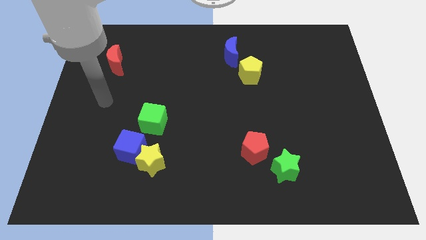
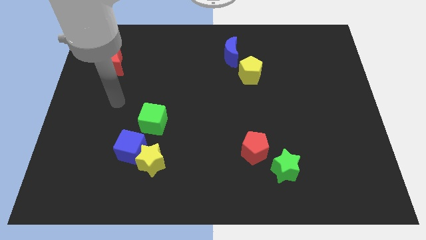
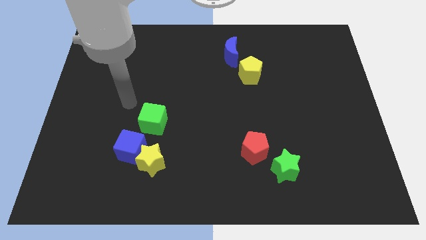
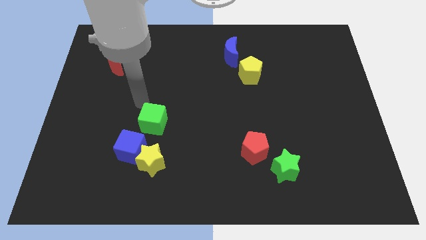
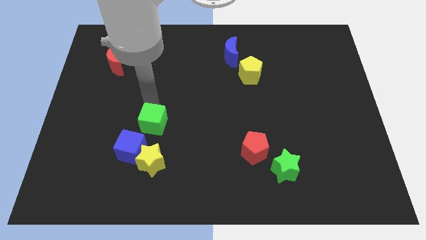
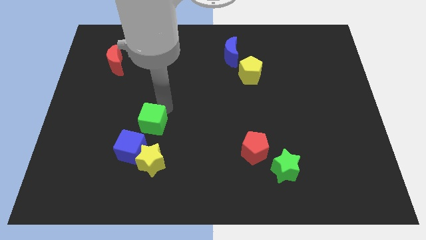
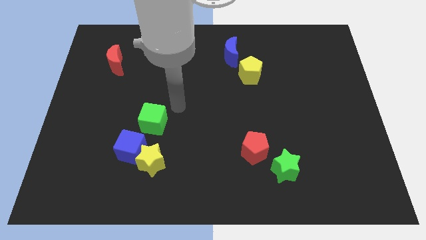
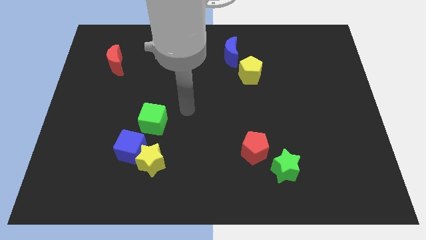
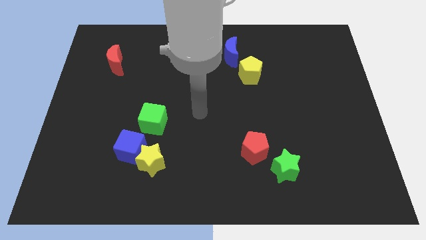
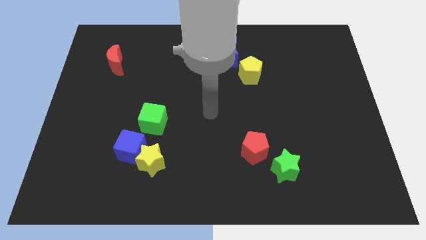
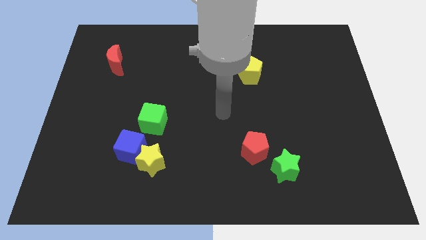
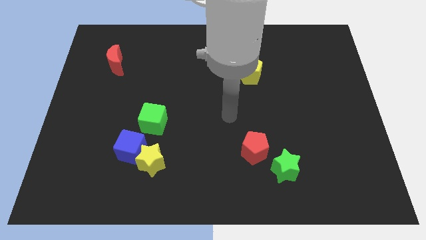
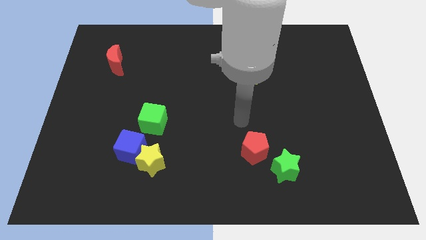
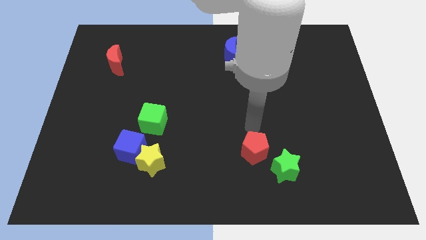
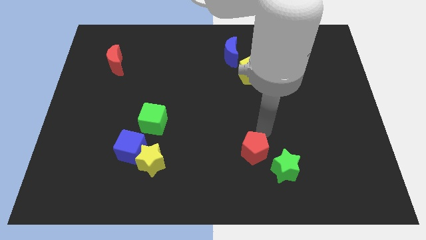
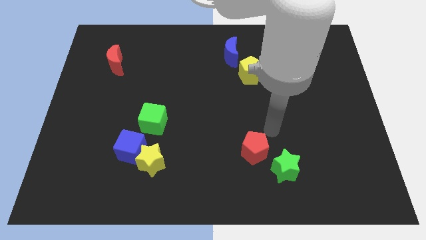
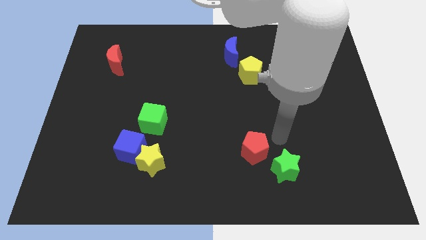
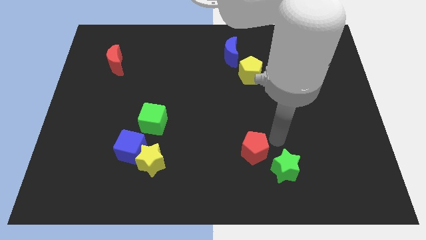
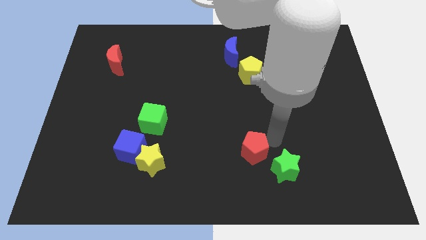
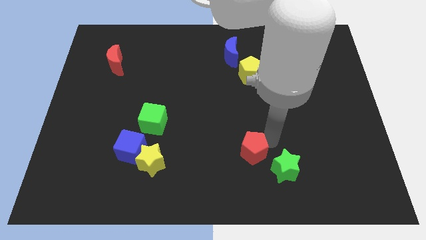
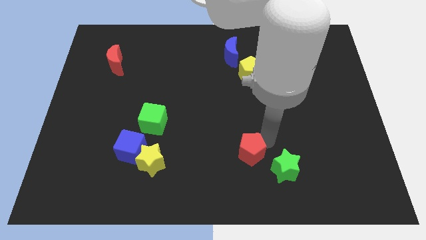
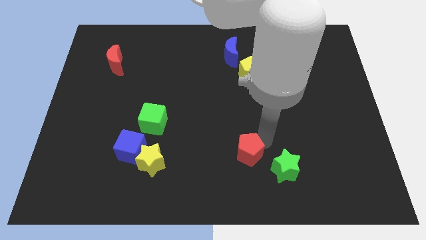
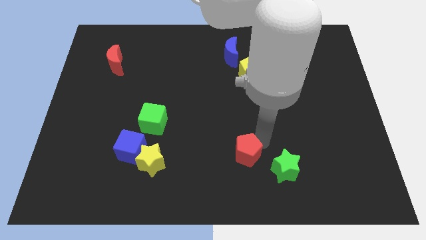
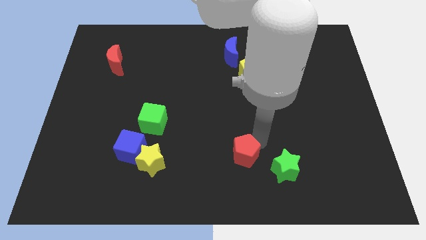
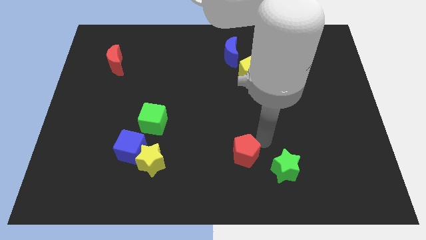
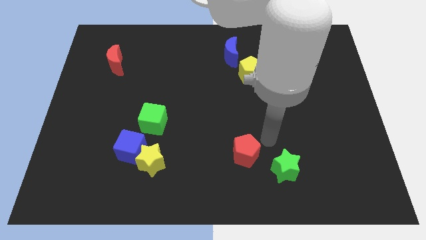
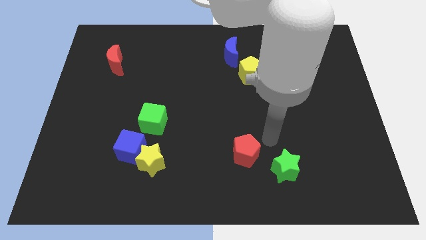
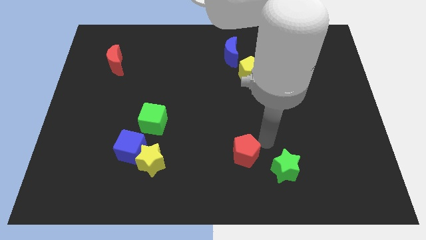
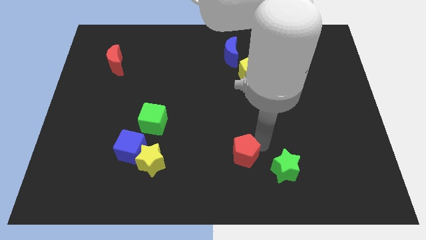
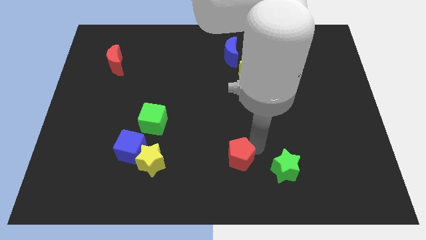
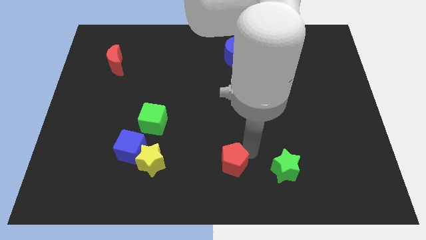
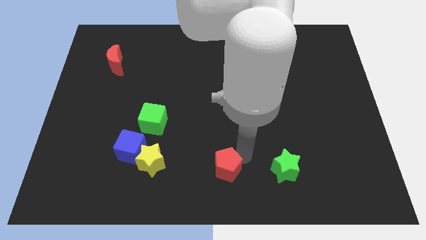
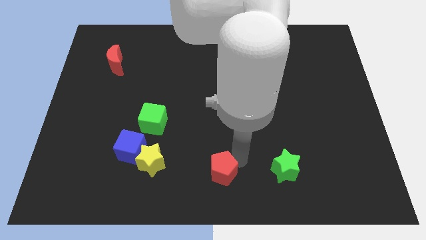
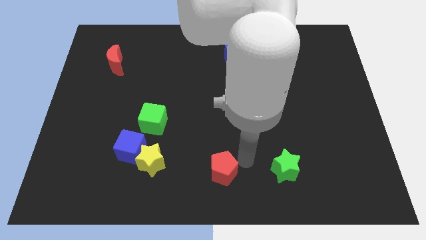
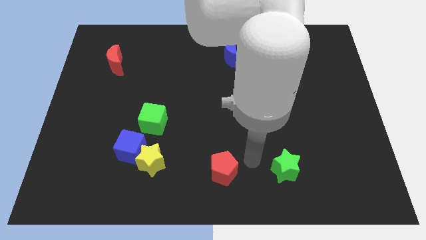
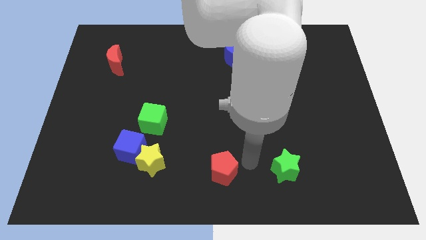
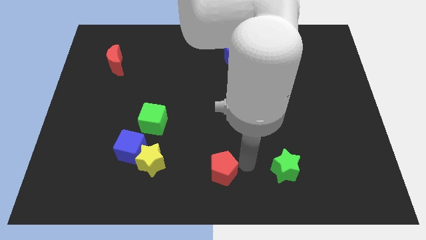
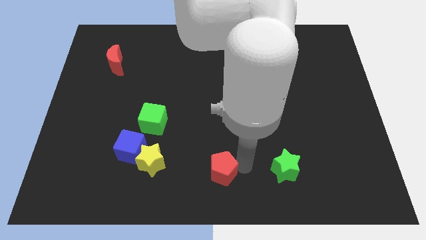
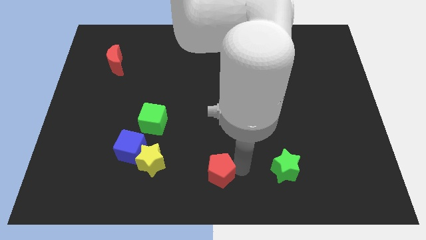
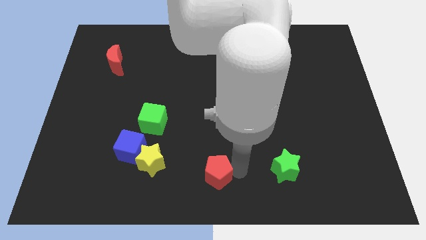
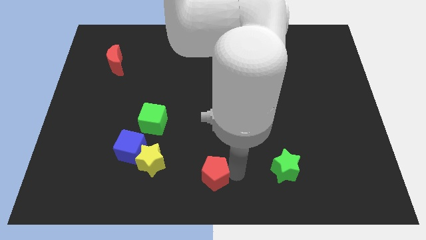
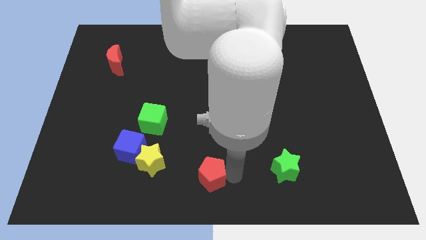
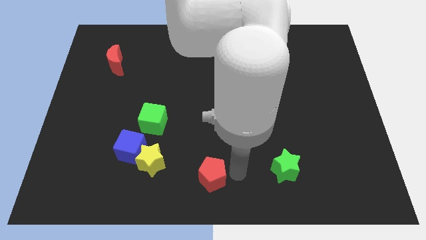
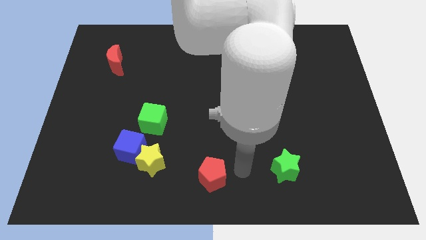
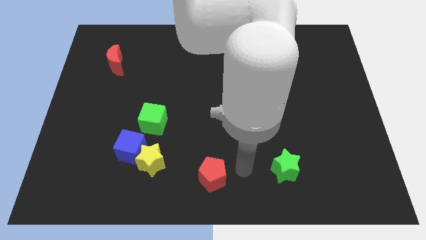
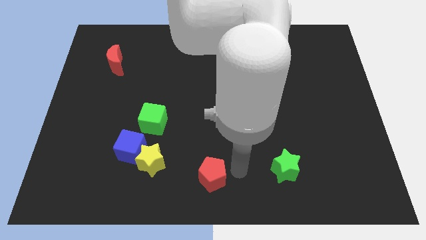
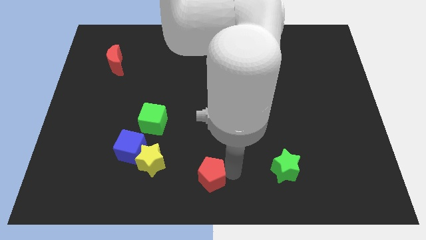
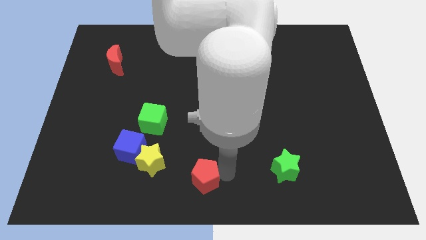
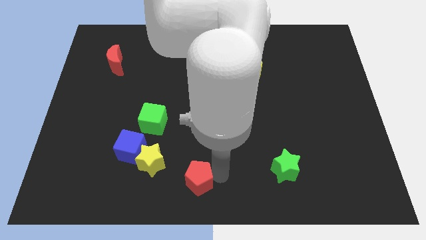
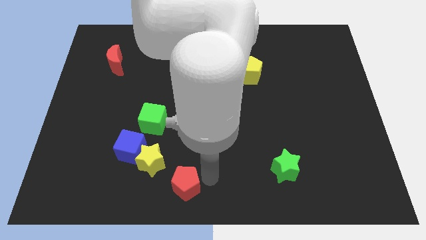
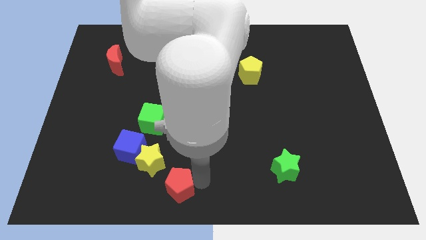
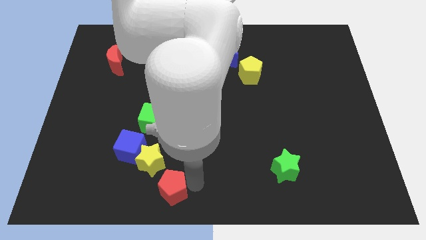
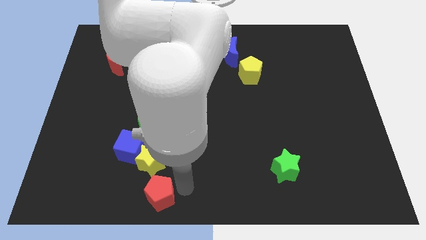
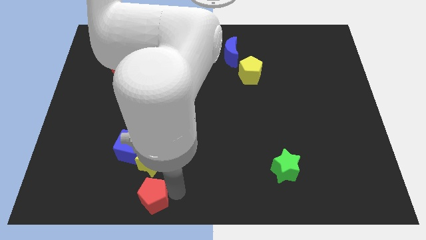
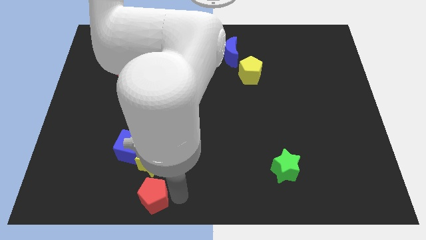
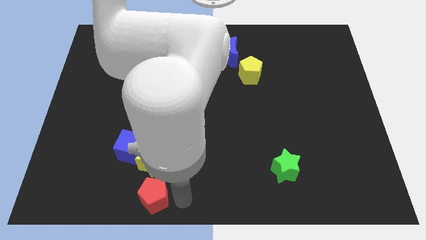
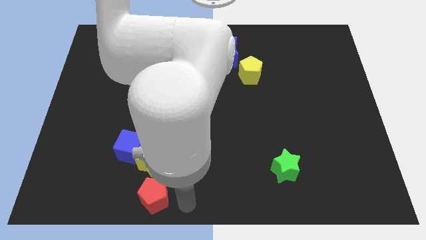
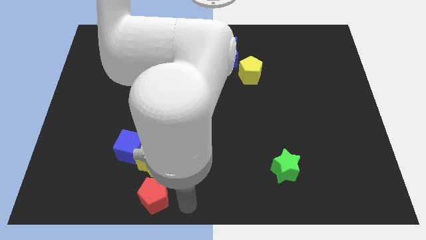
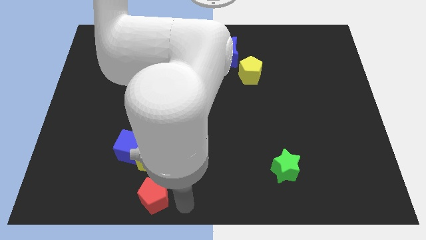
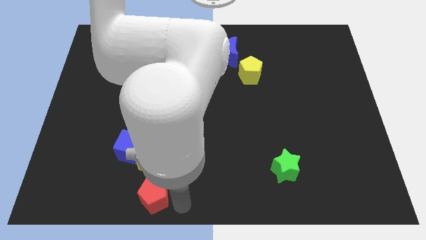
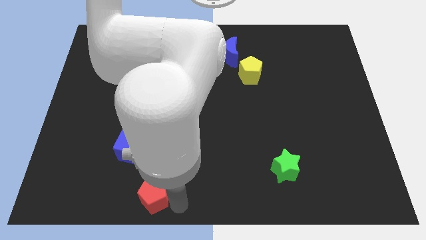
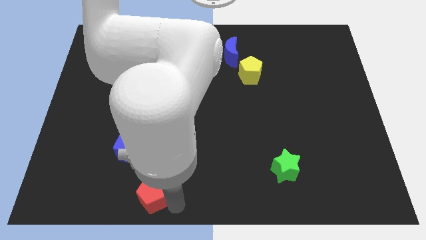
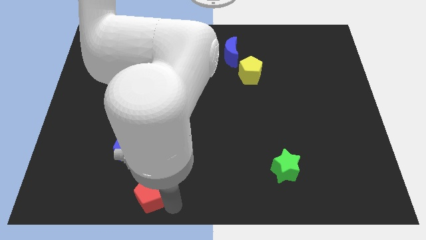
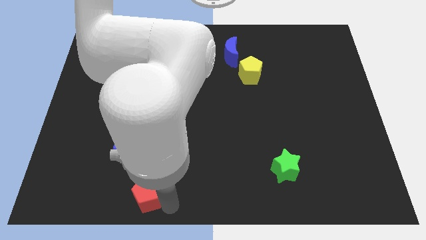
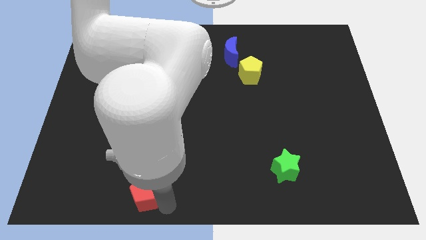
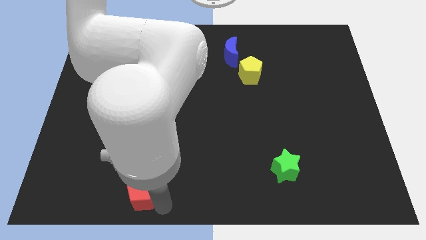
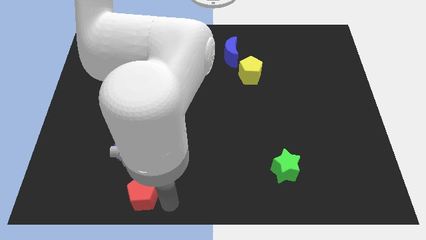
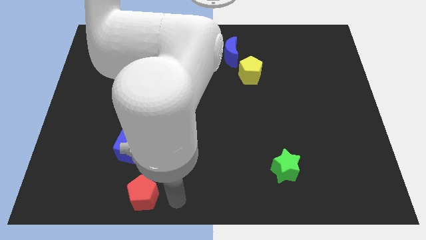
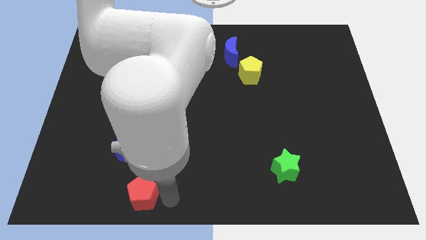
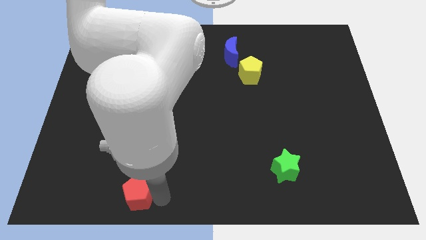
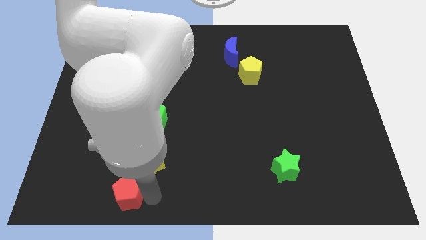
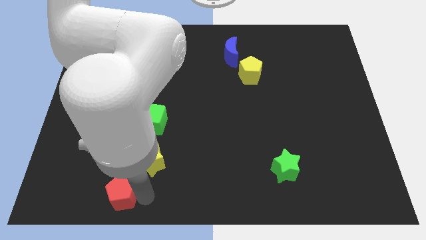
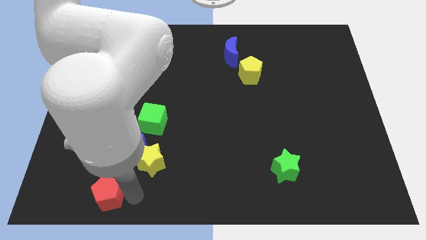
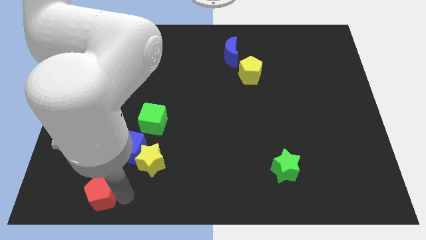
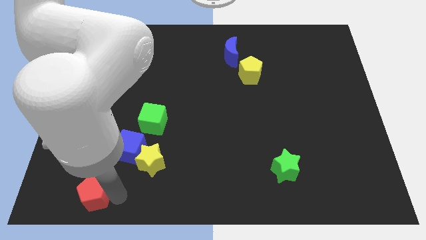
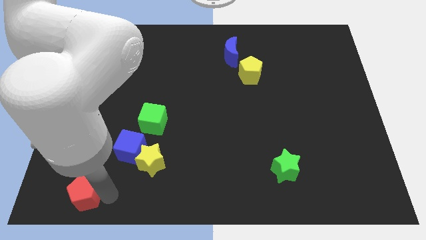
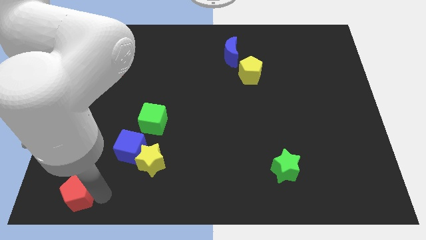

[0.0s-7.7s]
push the red pentagon to the lower left corner
